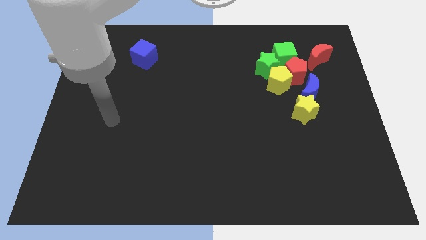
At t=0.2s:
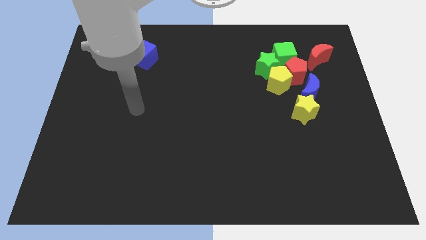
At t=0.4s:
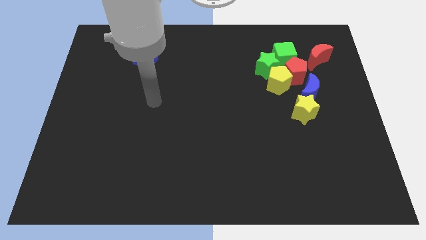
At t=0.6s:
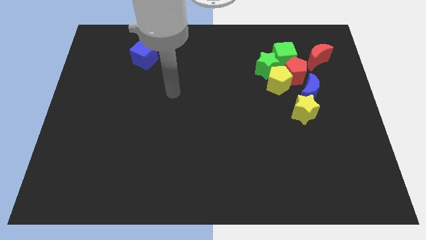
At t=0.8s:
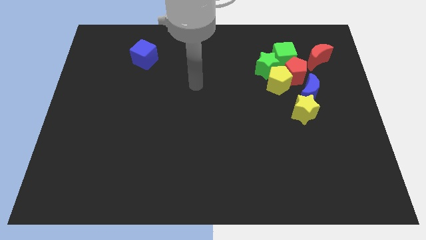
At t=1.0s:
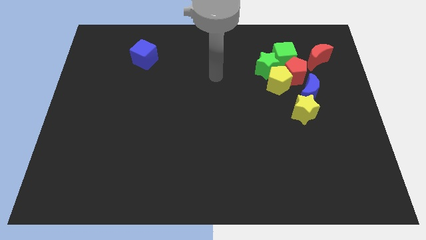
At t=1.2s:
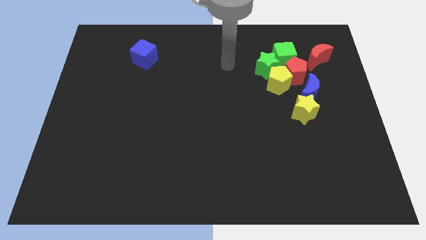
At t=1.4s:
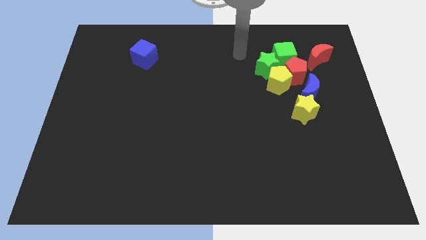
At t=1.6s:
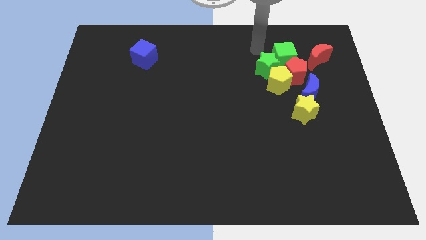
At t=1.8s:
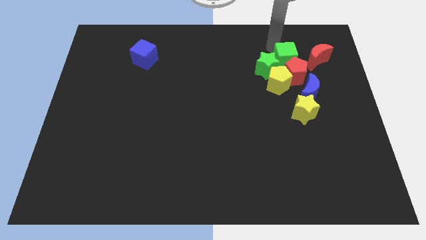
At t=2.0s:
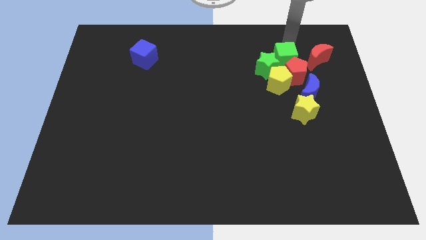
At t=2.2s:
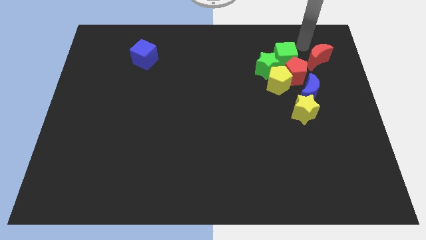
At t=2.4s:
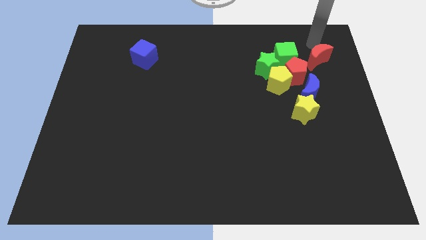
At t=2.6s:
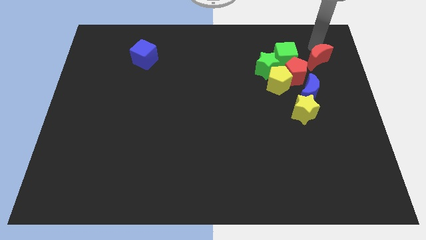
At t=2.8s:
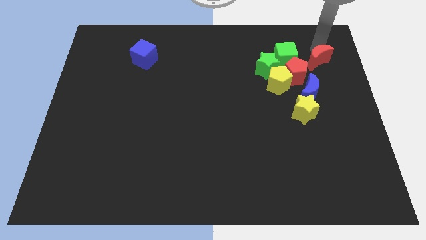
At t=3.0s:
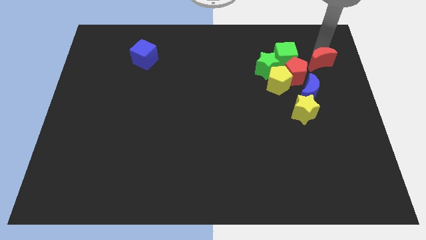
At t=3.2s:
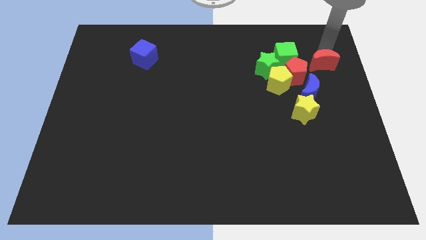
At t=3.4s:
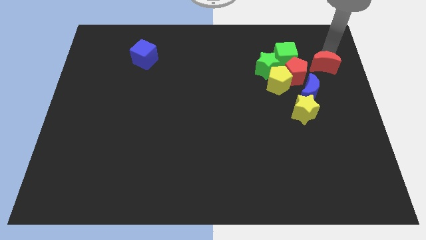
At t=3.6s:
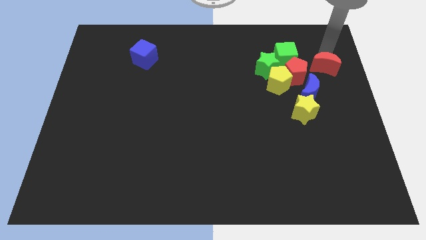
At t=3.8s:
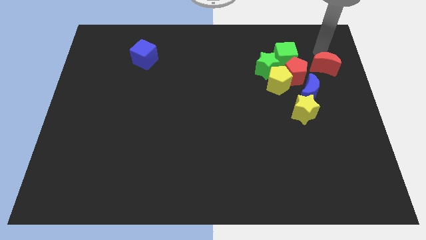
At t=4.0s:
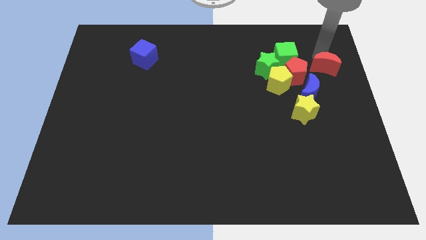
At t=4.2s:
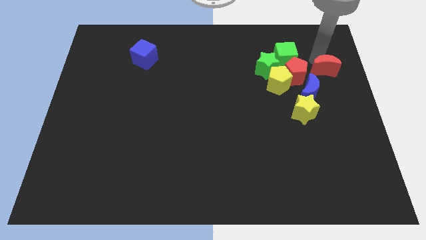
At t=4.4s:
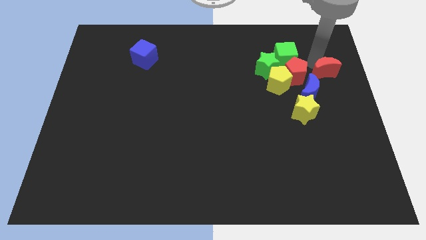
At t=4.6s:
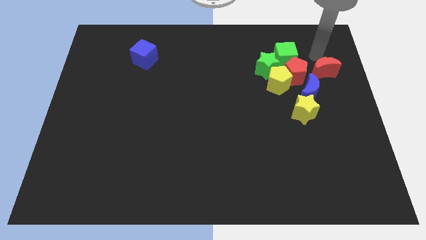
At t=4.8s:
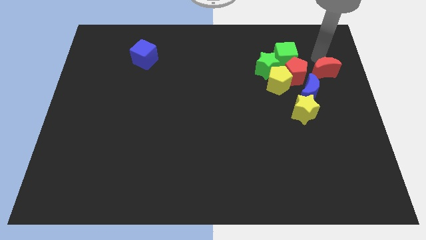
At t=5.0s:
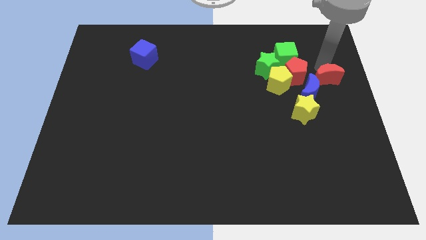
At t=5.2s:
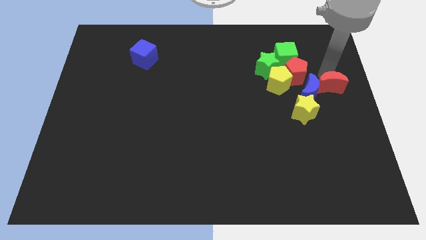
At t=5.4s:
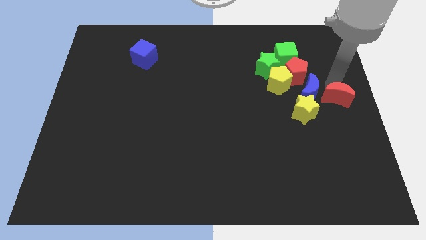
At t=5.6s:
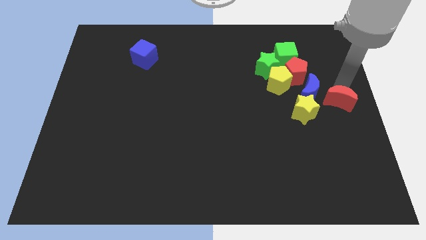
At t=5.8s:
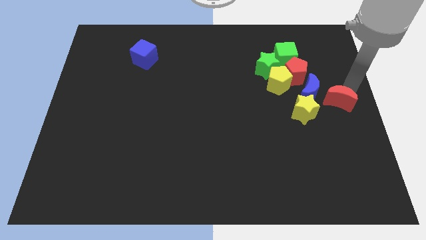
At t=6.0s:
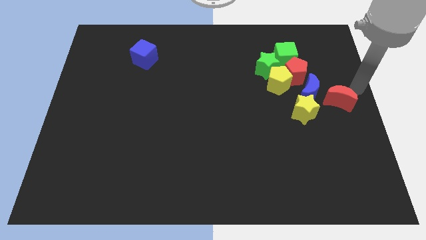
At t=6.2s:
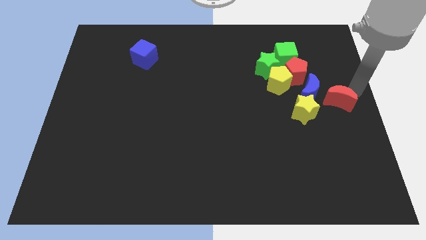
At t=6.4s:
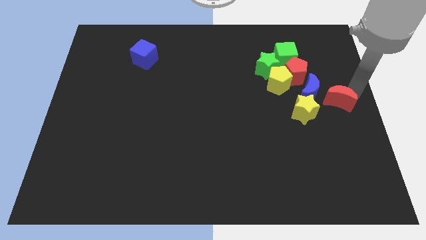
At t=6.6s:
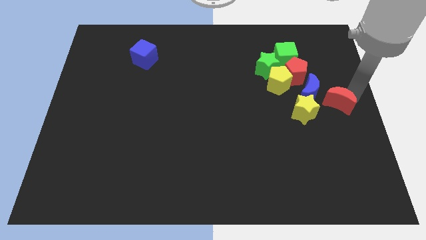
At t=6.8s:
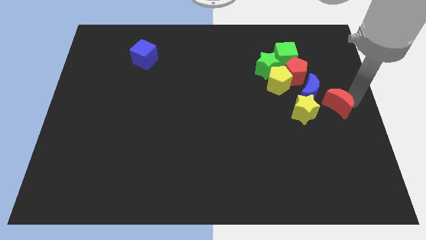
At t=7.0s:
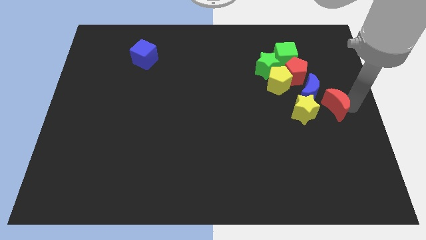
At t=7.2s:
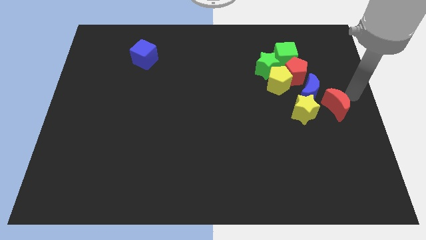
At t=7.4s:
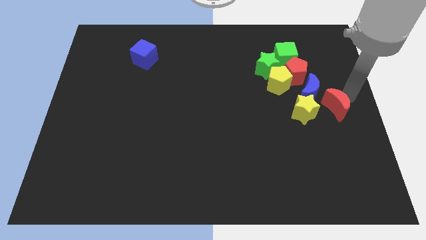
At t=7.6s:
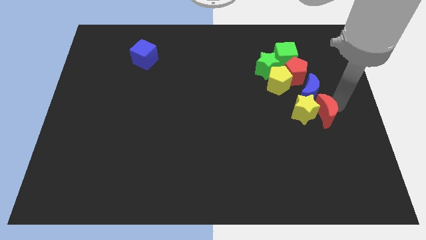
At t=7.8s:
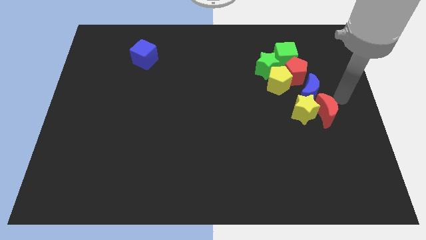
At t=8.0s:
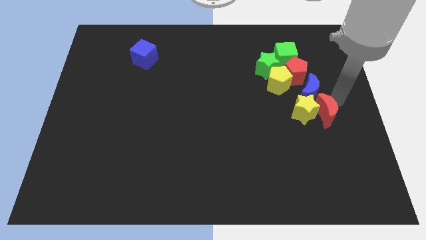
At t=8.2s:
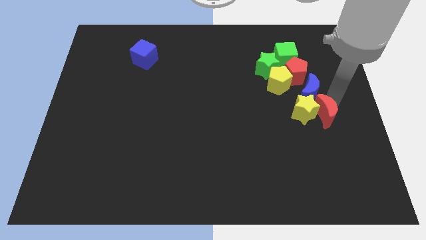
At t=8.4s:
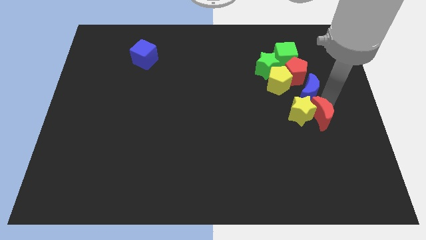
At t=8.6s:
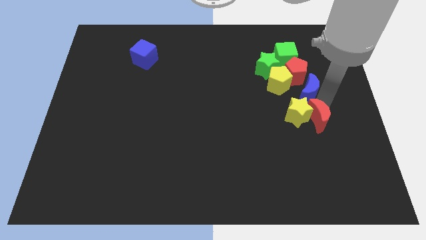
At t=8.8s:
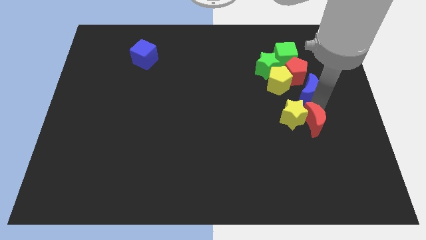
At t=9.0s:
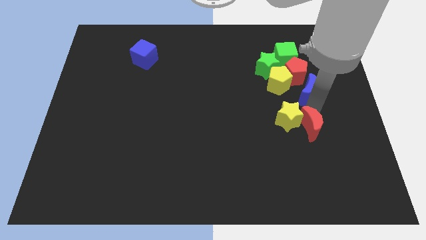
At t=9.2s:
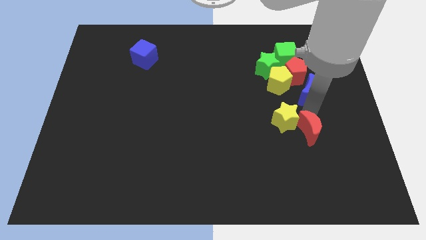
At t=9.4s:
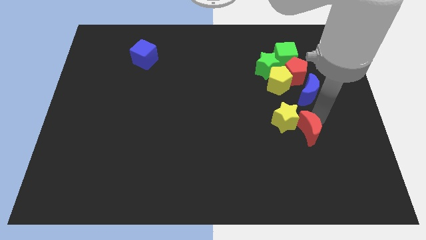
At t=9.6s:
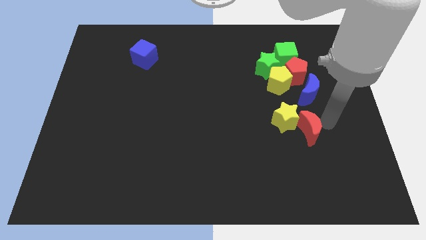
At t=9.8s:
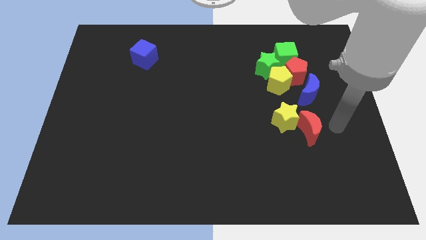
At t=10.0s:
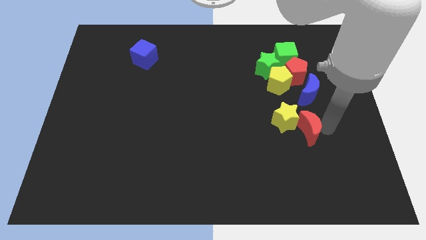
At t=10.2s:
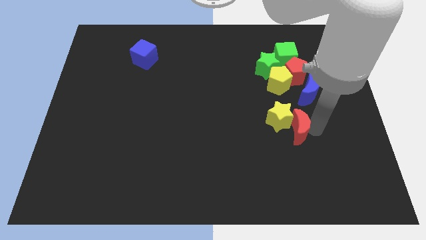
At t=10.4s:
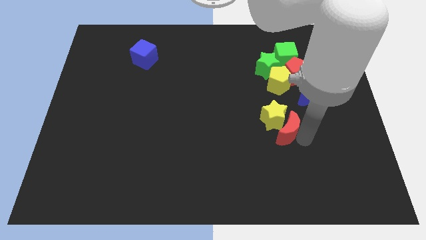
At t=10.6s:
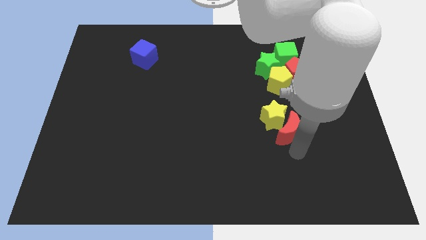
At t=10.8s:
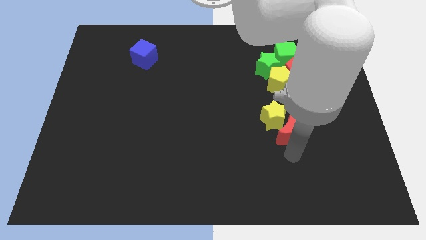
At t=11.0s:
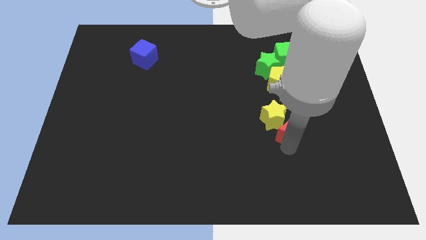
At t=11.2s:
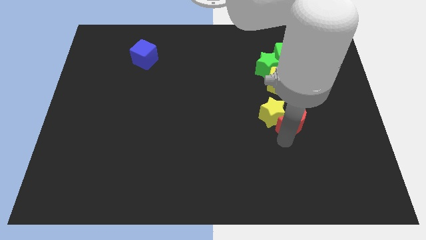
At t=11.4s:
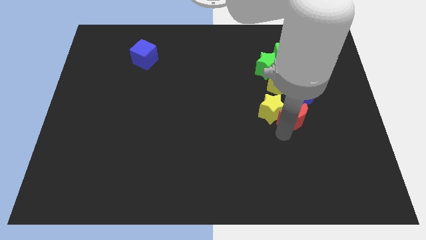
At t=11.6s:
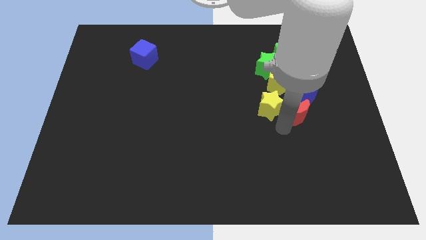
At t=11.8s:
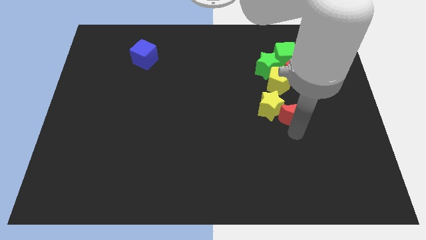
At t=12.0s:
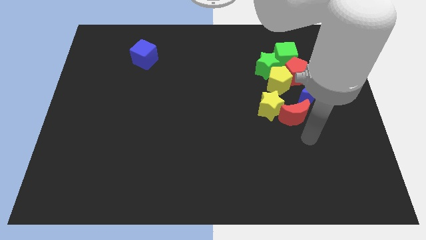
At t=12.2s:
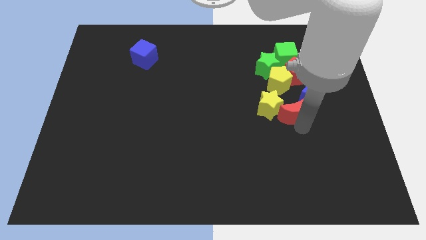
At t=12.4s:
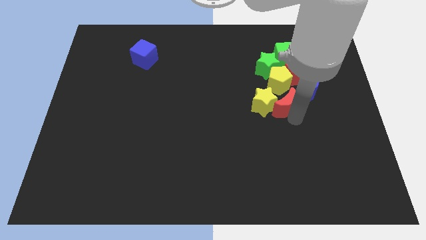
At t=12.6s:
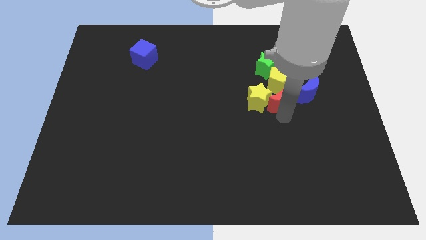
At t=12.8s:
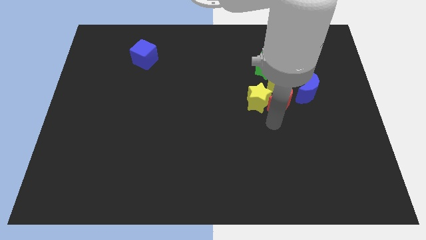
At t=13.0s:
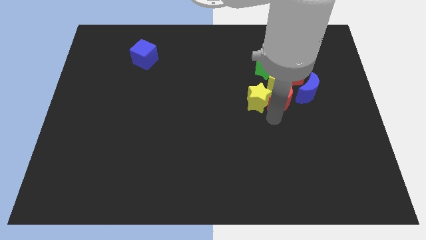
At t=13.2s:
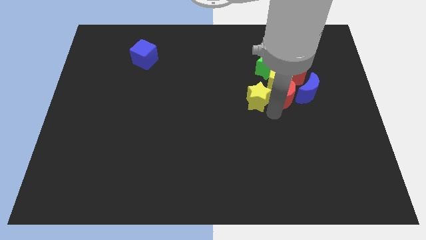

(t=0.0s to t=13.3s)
move the red moon to the bottom right of the green star

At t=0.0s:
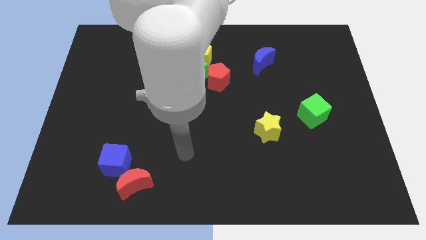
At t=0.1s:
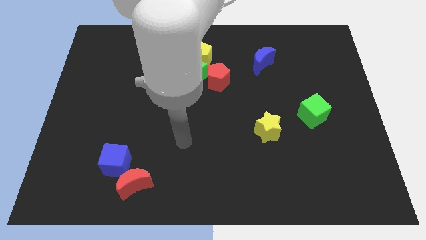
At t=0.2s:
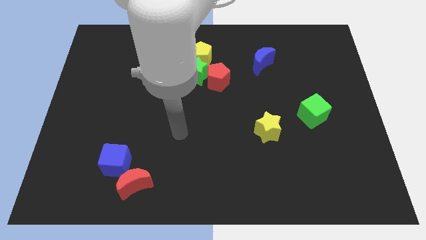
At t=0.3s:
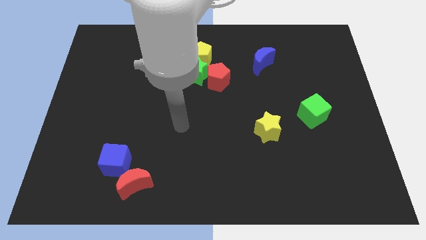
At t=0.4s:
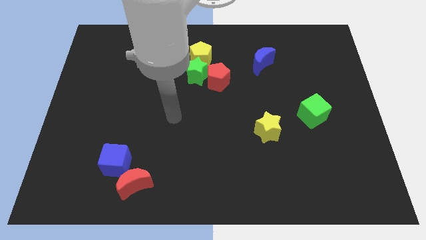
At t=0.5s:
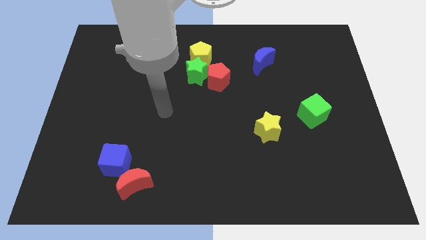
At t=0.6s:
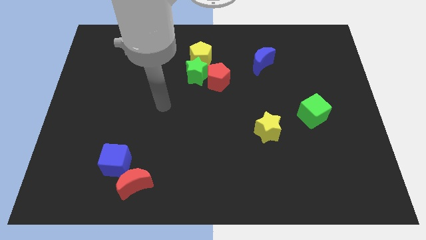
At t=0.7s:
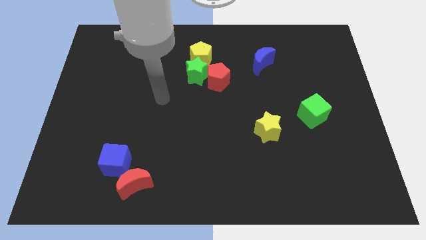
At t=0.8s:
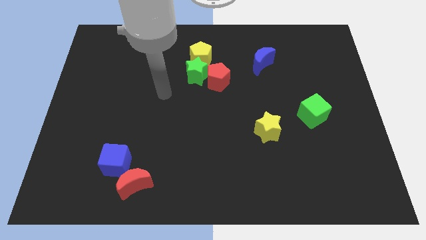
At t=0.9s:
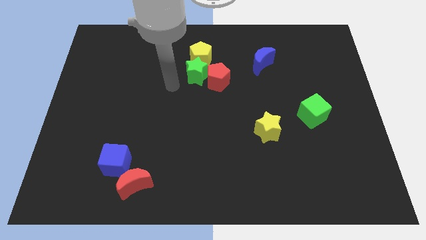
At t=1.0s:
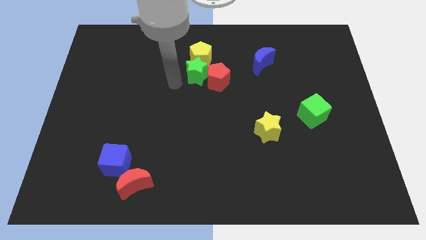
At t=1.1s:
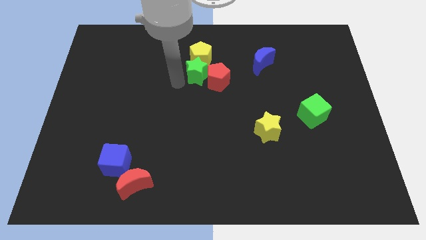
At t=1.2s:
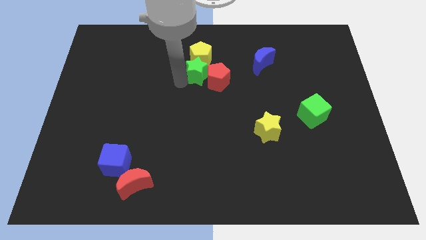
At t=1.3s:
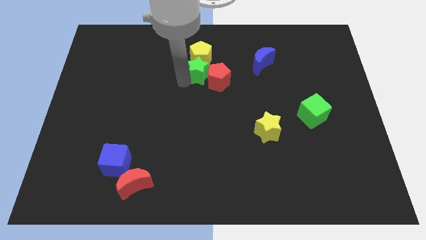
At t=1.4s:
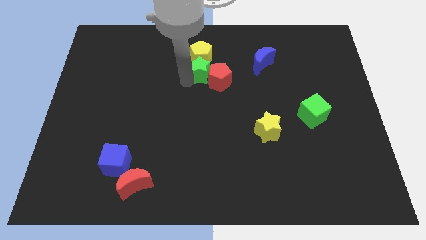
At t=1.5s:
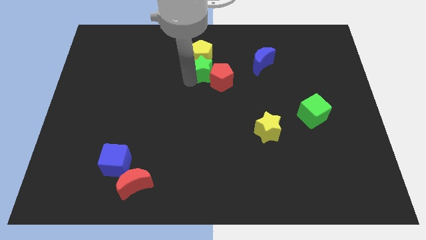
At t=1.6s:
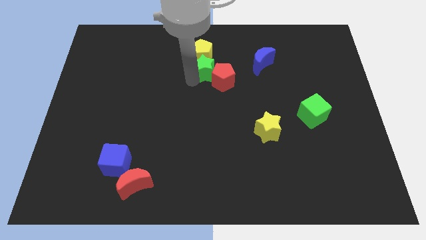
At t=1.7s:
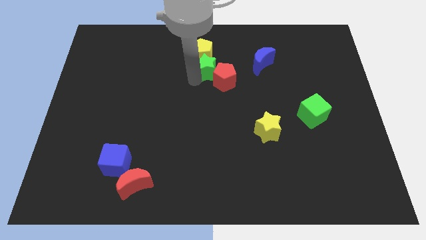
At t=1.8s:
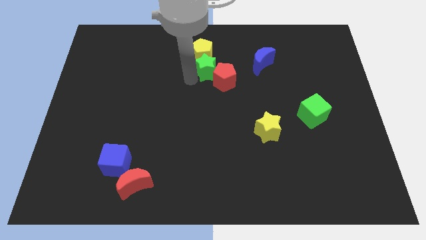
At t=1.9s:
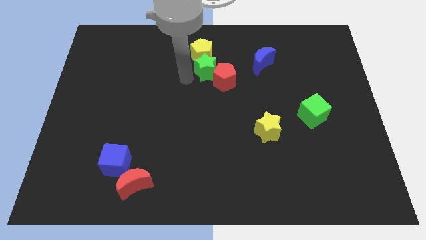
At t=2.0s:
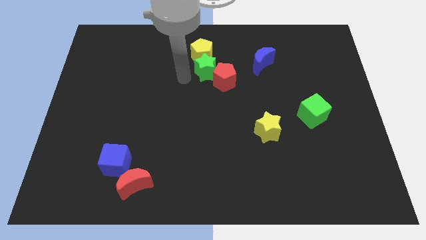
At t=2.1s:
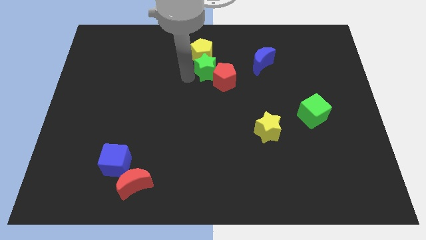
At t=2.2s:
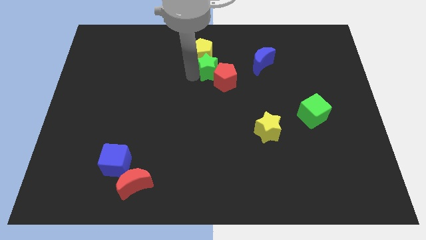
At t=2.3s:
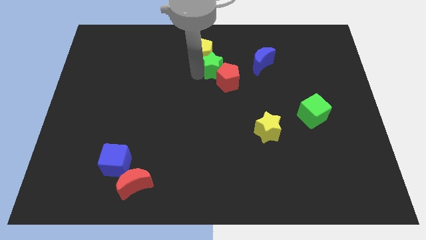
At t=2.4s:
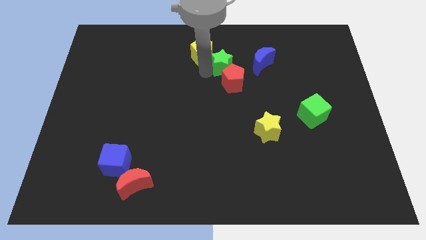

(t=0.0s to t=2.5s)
slide the green star right of the yellow pentagon
